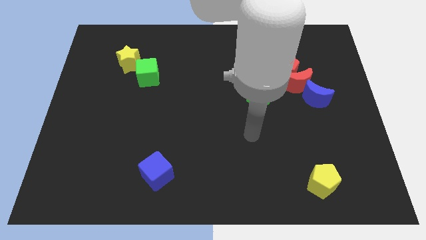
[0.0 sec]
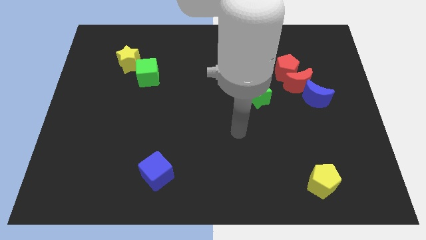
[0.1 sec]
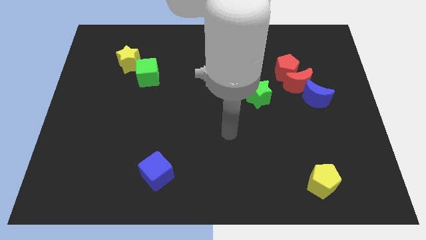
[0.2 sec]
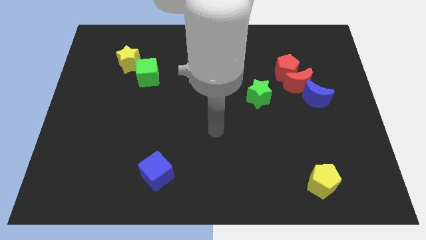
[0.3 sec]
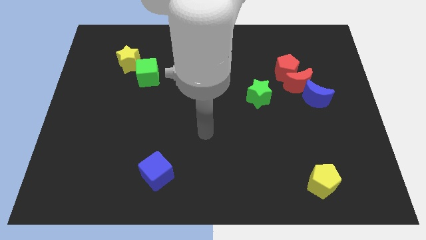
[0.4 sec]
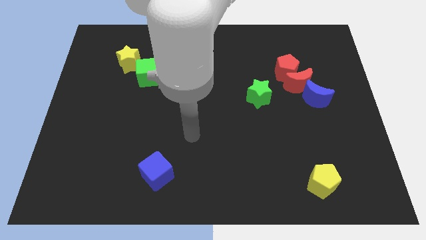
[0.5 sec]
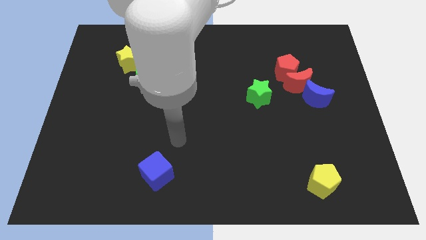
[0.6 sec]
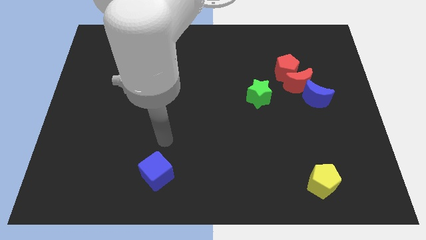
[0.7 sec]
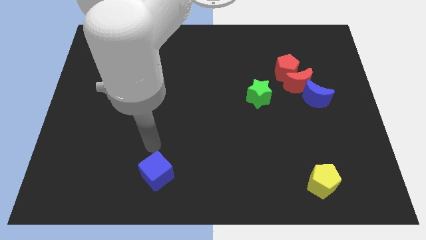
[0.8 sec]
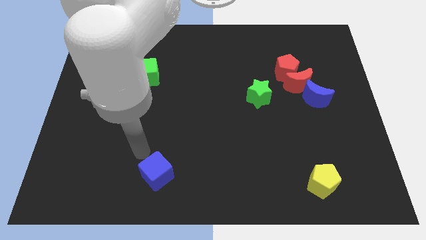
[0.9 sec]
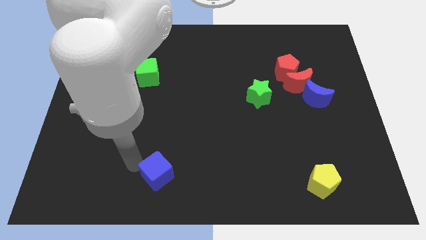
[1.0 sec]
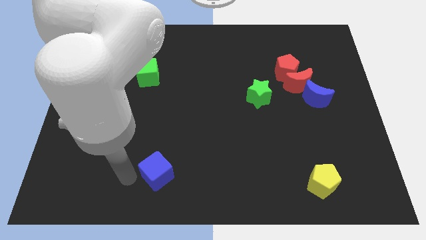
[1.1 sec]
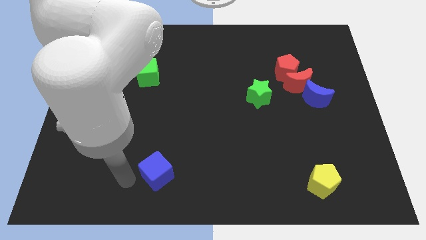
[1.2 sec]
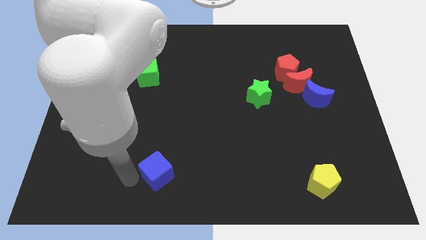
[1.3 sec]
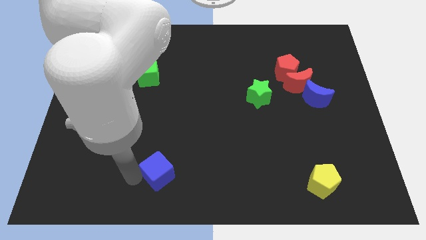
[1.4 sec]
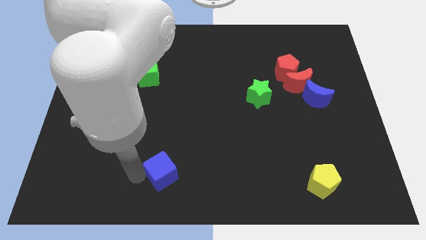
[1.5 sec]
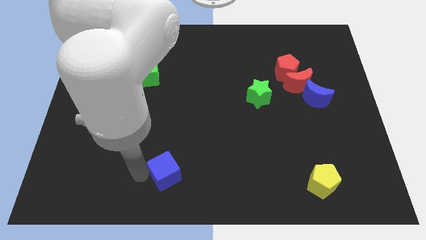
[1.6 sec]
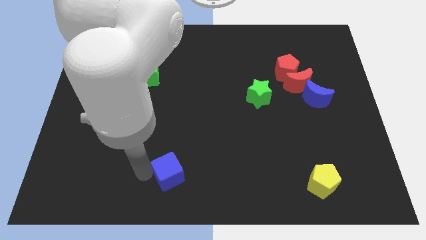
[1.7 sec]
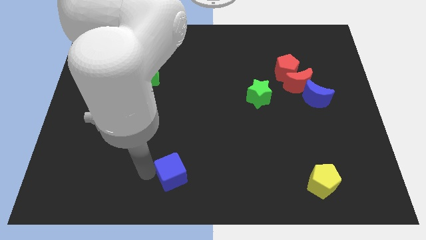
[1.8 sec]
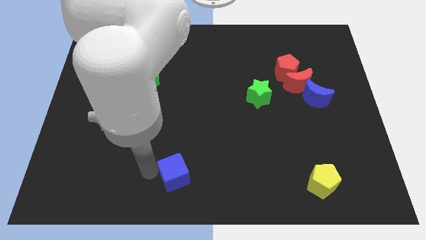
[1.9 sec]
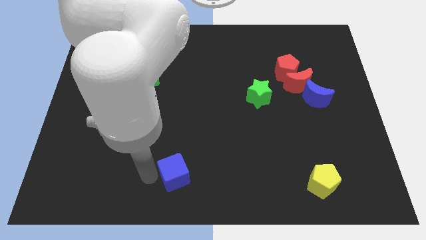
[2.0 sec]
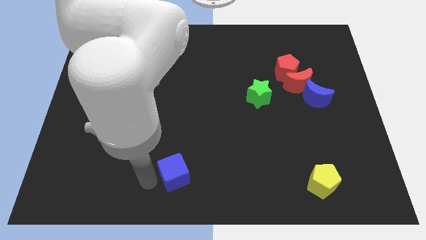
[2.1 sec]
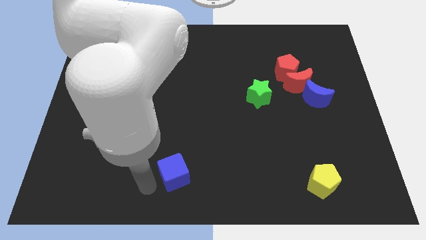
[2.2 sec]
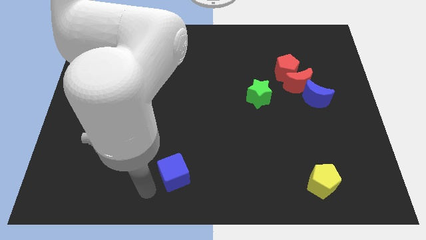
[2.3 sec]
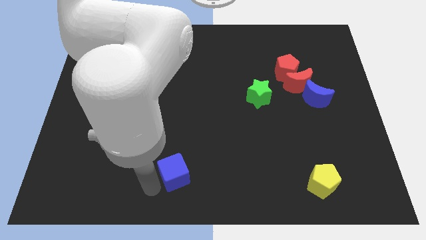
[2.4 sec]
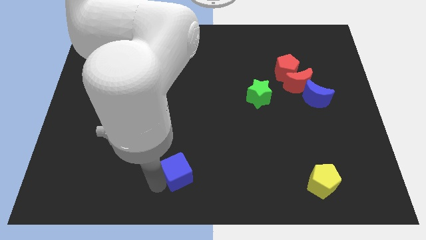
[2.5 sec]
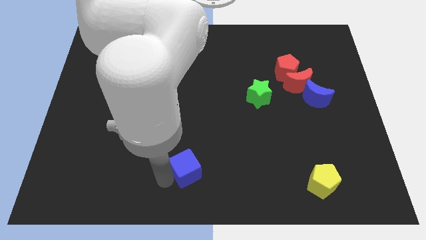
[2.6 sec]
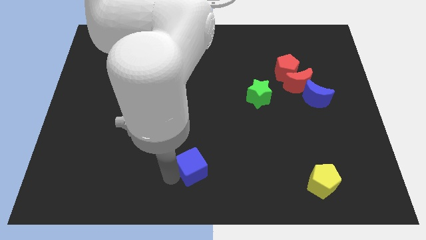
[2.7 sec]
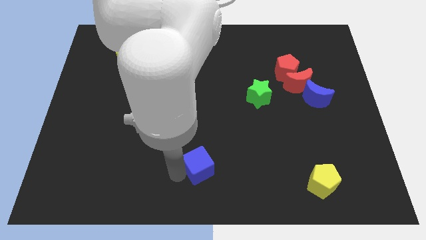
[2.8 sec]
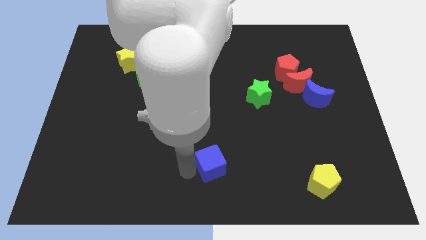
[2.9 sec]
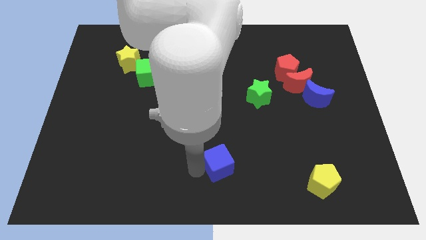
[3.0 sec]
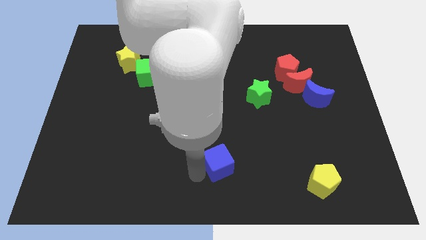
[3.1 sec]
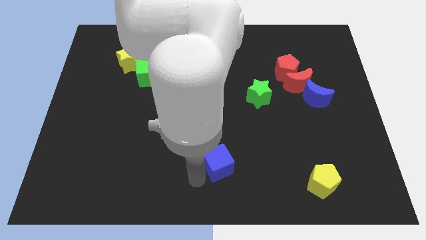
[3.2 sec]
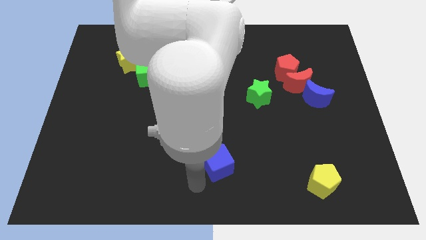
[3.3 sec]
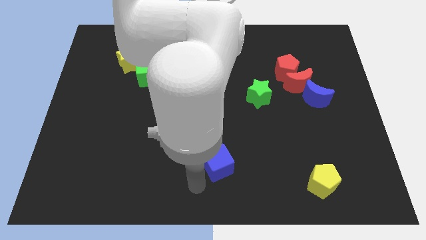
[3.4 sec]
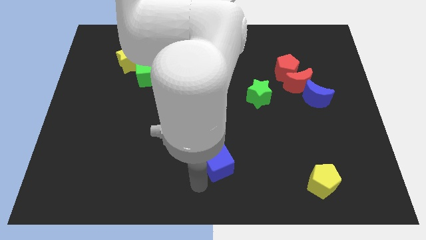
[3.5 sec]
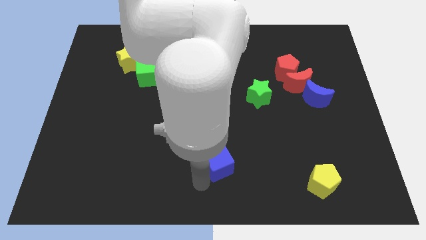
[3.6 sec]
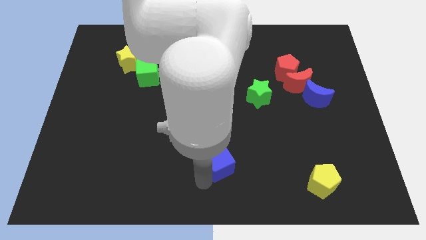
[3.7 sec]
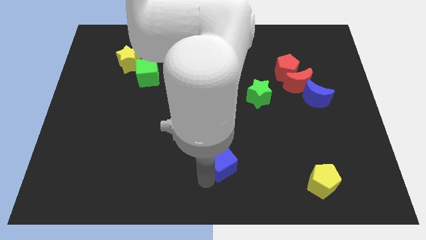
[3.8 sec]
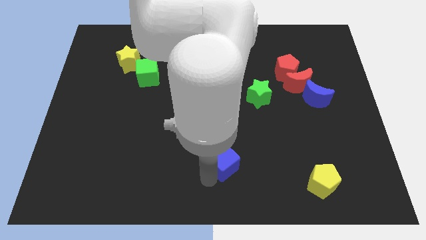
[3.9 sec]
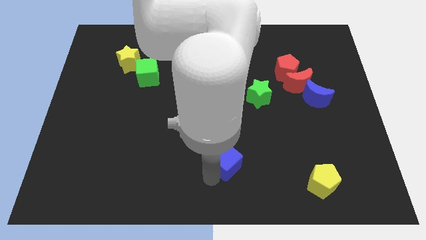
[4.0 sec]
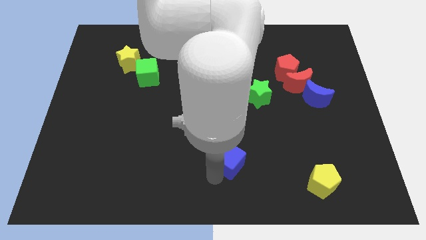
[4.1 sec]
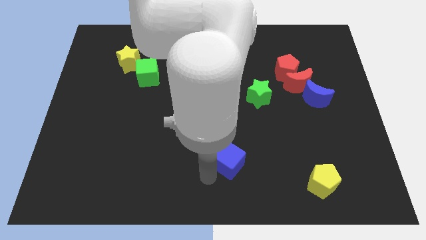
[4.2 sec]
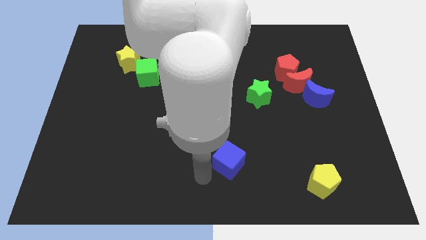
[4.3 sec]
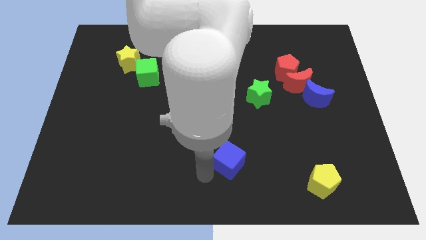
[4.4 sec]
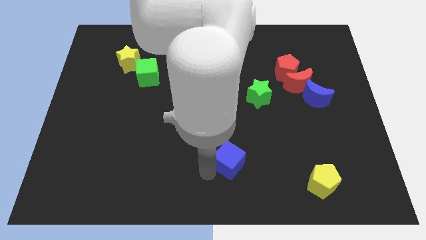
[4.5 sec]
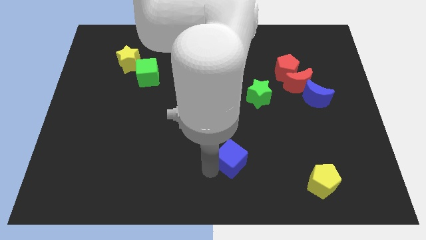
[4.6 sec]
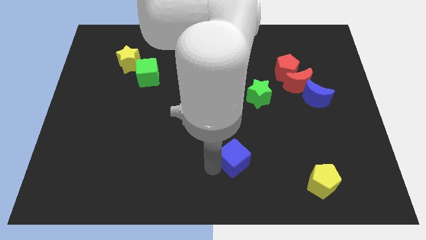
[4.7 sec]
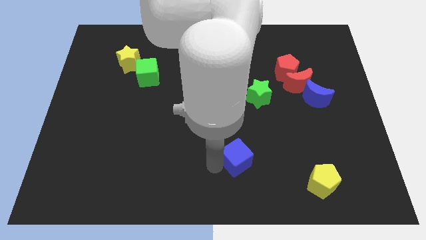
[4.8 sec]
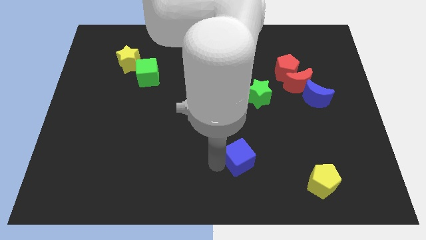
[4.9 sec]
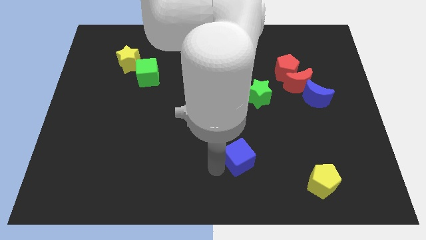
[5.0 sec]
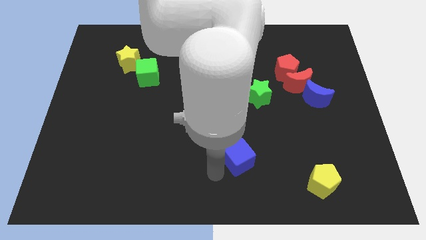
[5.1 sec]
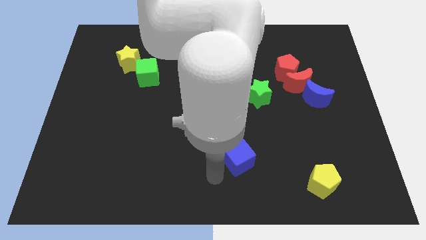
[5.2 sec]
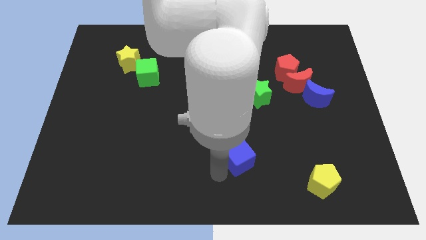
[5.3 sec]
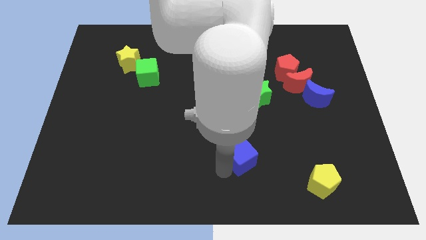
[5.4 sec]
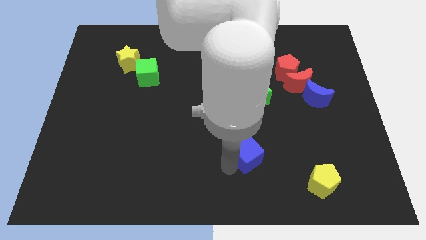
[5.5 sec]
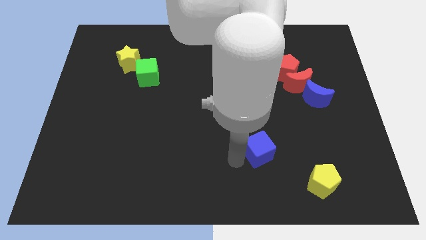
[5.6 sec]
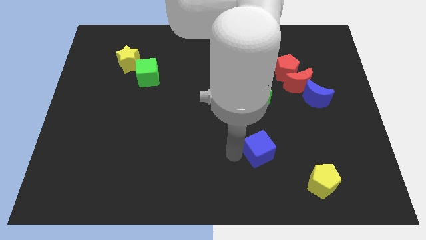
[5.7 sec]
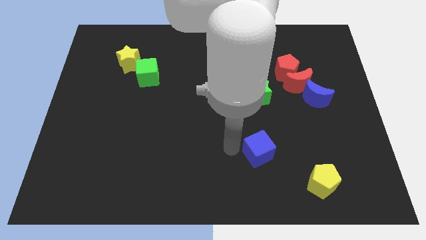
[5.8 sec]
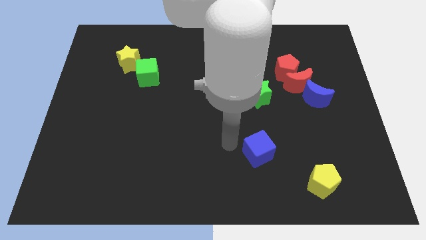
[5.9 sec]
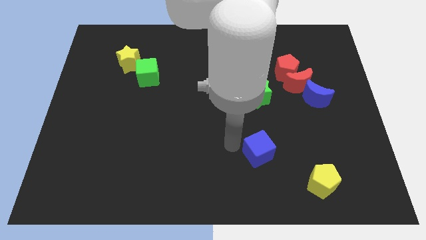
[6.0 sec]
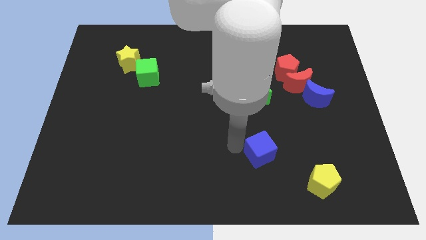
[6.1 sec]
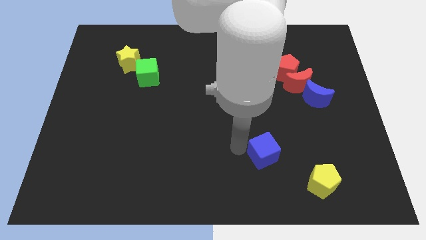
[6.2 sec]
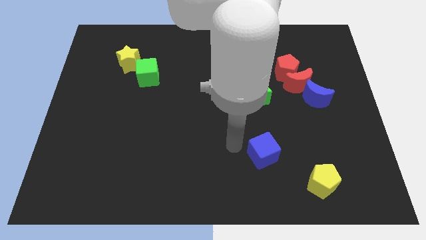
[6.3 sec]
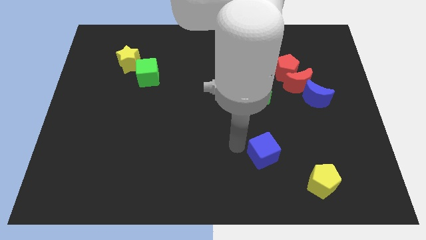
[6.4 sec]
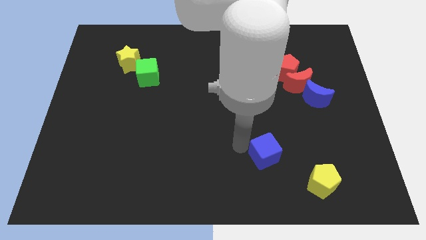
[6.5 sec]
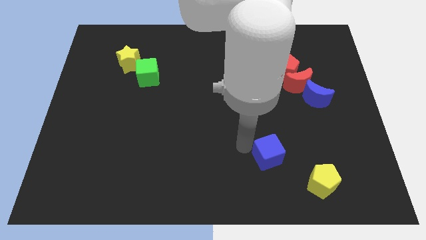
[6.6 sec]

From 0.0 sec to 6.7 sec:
push the blue cube to the top left of the yellow pentagon

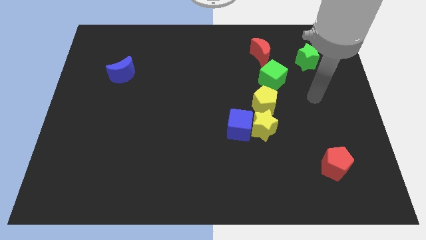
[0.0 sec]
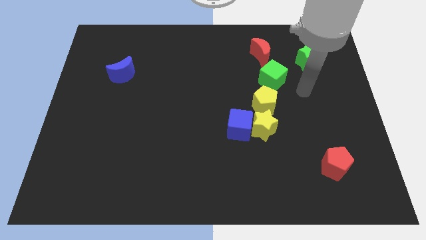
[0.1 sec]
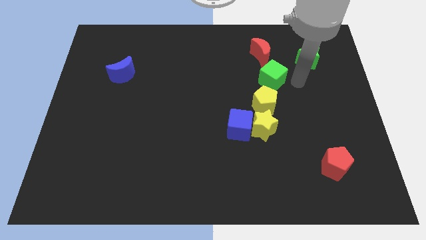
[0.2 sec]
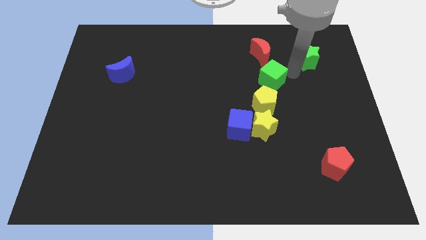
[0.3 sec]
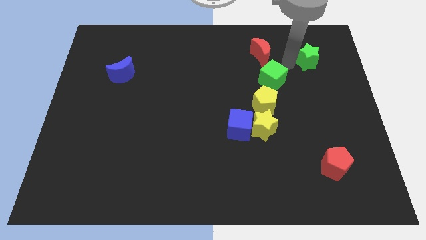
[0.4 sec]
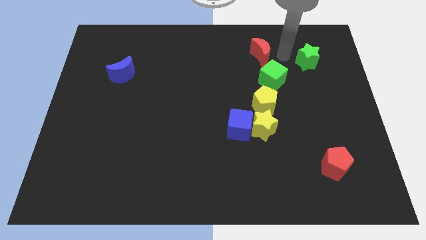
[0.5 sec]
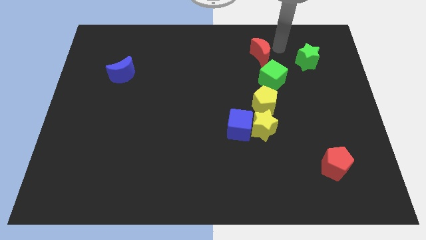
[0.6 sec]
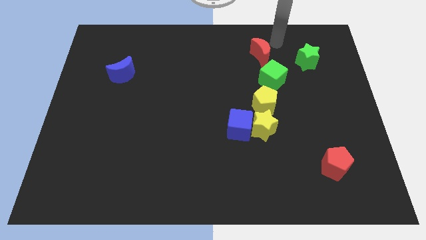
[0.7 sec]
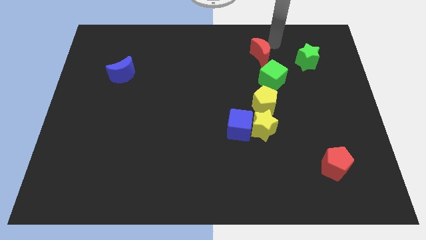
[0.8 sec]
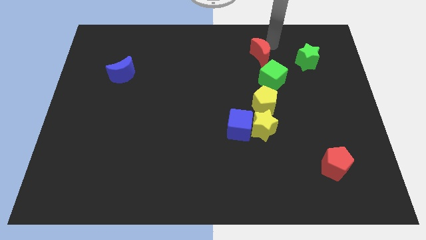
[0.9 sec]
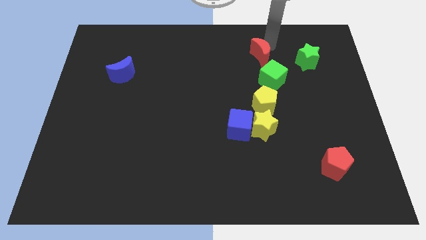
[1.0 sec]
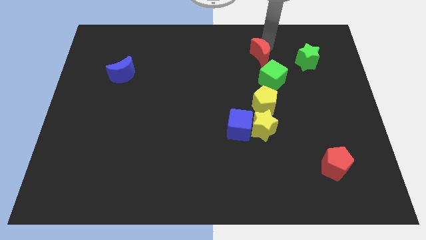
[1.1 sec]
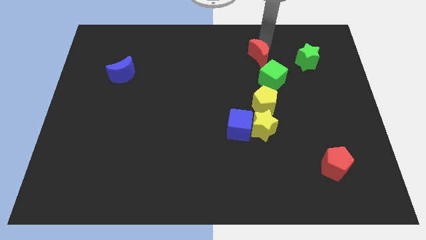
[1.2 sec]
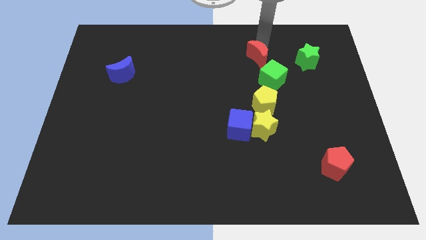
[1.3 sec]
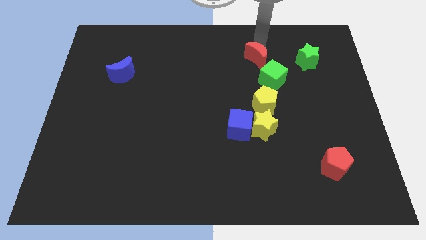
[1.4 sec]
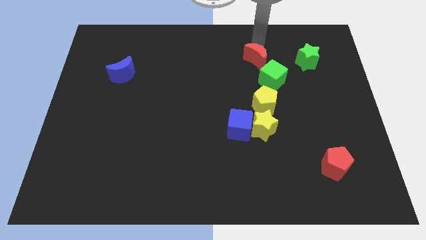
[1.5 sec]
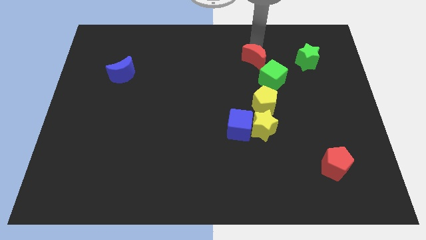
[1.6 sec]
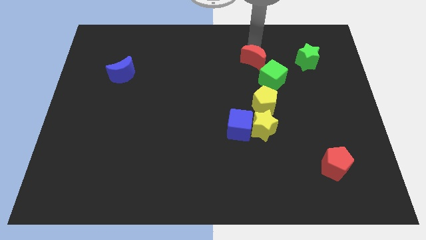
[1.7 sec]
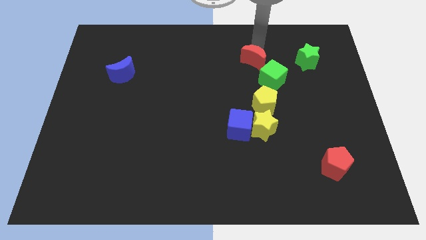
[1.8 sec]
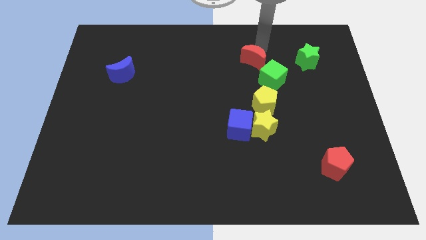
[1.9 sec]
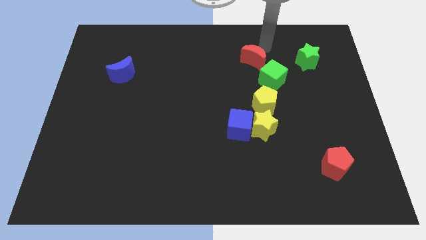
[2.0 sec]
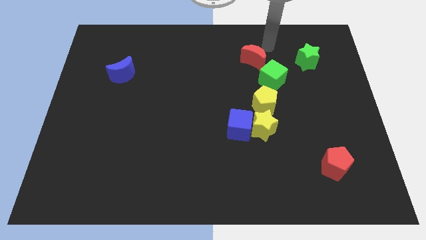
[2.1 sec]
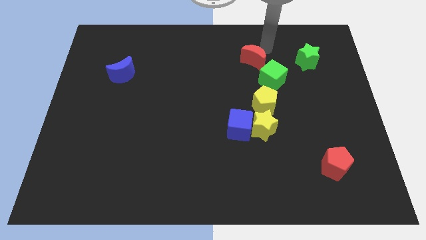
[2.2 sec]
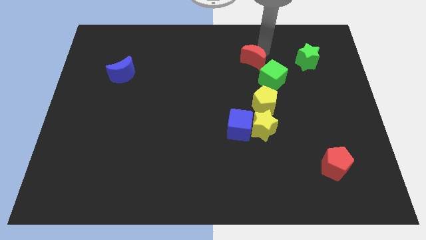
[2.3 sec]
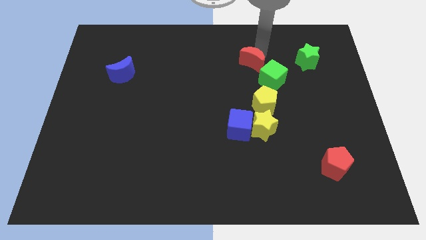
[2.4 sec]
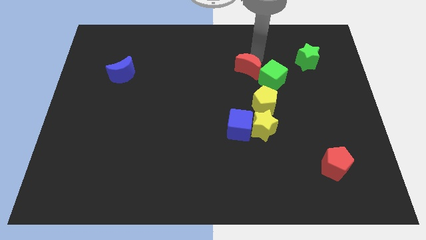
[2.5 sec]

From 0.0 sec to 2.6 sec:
slide the red moon to the left side of the green cube
